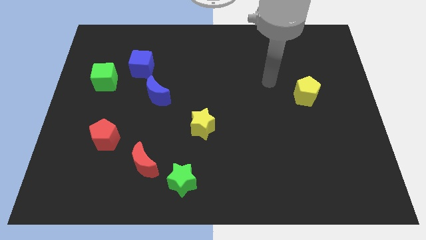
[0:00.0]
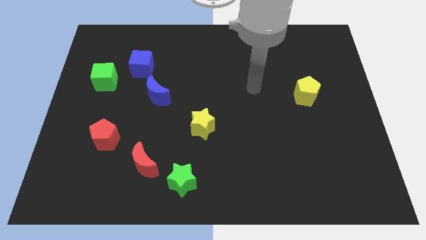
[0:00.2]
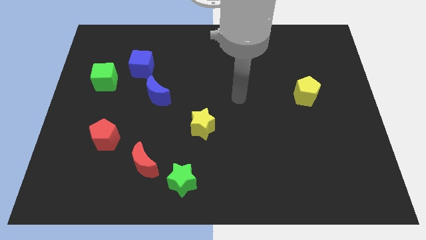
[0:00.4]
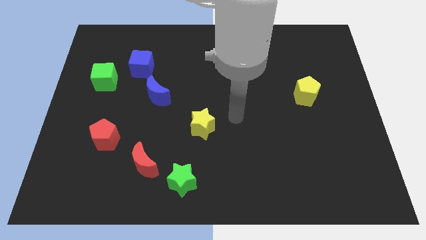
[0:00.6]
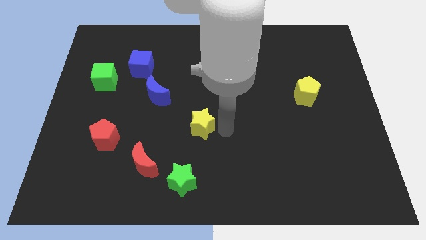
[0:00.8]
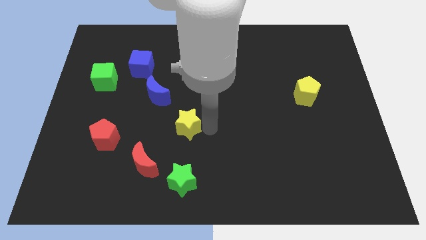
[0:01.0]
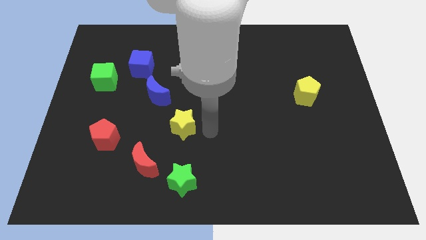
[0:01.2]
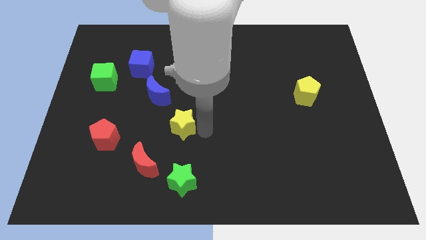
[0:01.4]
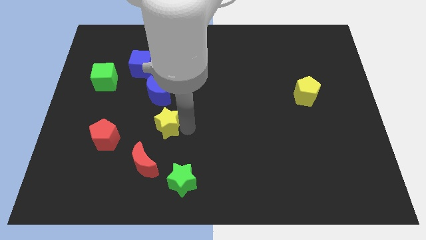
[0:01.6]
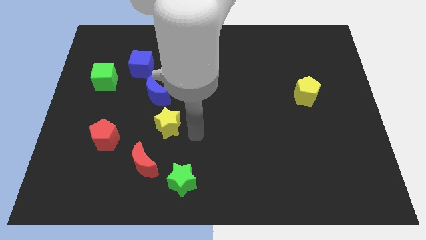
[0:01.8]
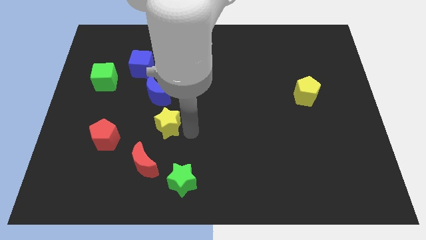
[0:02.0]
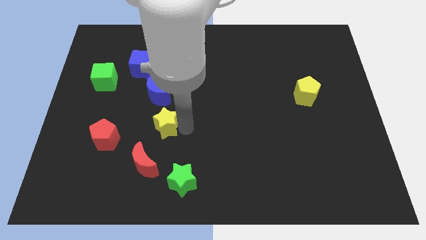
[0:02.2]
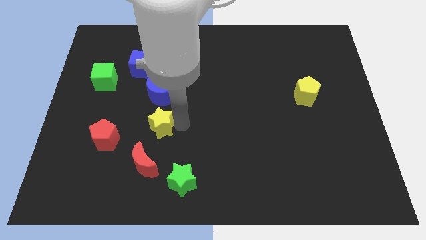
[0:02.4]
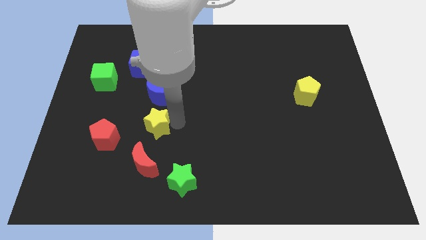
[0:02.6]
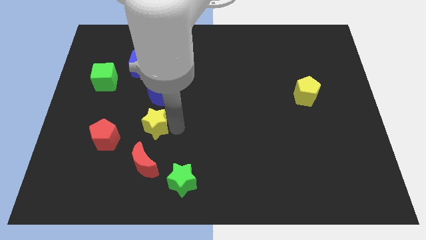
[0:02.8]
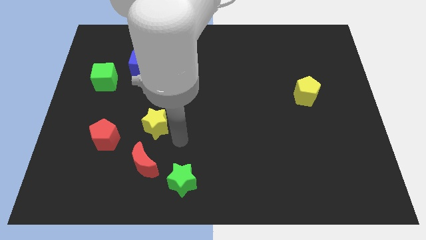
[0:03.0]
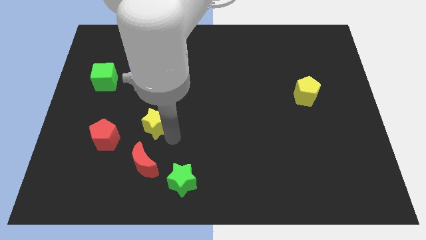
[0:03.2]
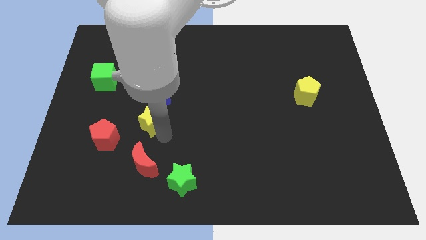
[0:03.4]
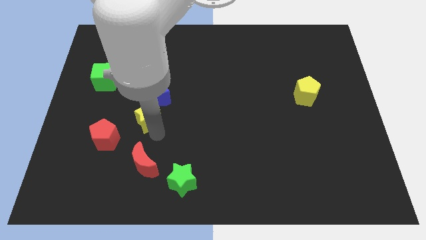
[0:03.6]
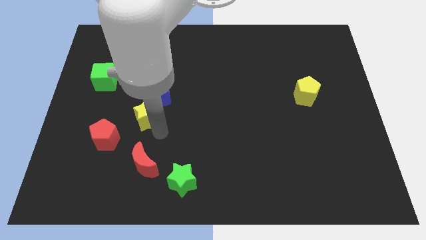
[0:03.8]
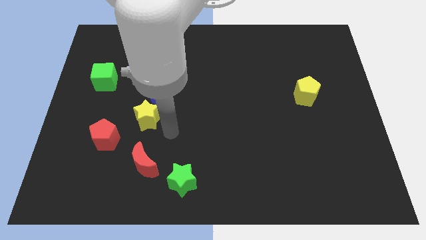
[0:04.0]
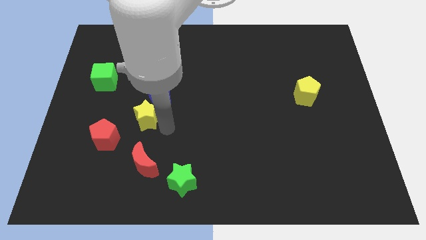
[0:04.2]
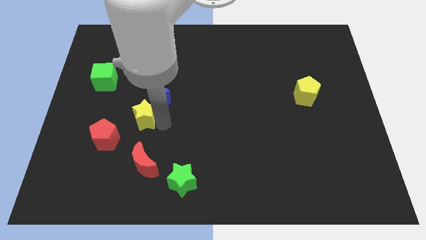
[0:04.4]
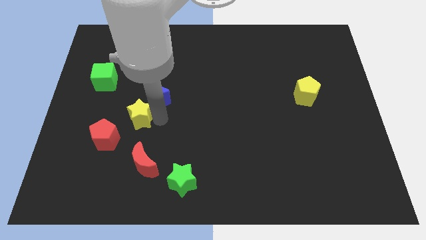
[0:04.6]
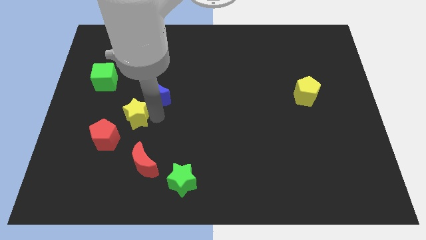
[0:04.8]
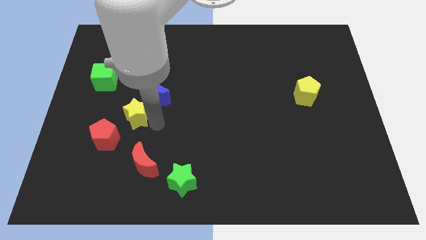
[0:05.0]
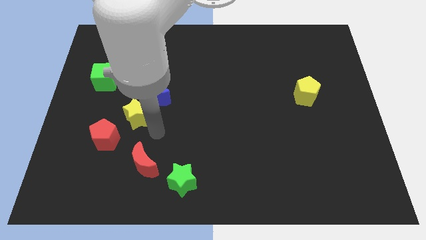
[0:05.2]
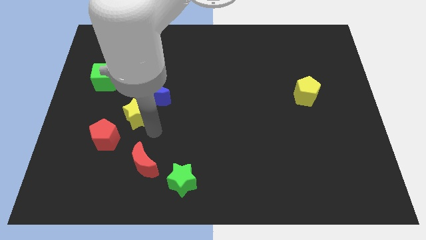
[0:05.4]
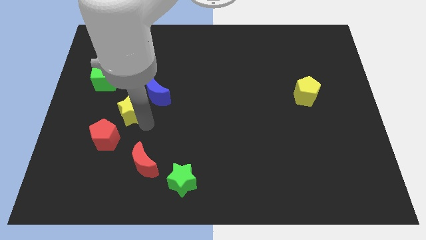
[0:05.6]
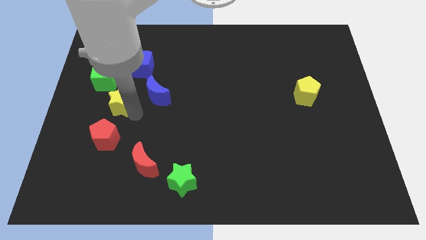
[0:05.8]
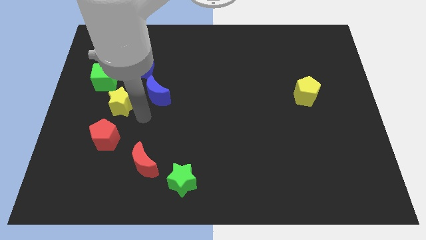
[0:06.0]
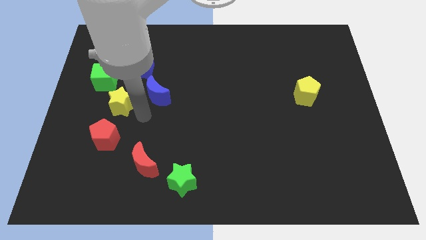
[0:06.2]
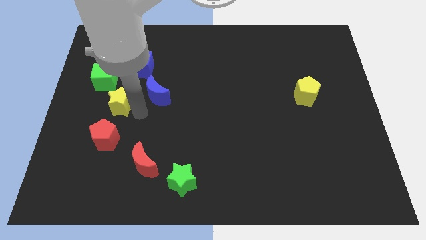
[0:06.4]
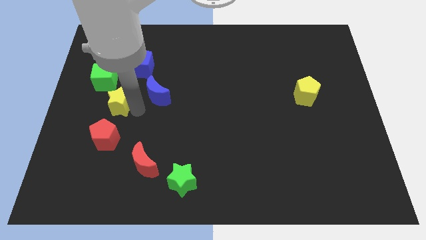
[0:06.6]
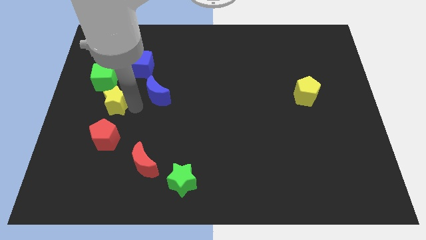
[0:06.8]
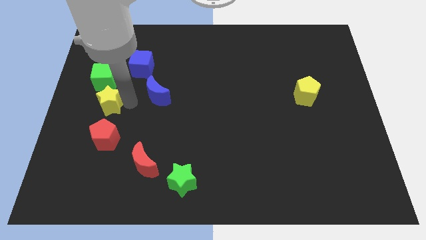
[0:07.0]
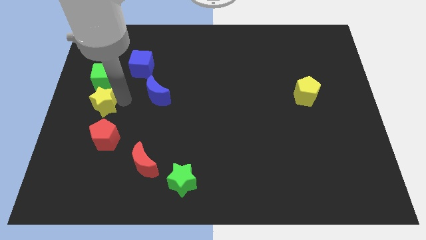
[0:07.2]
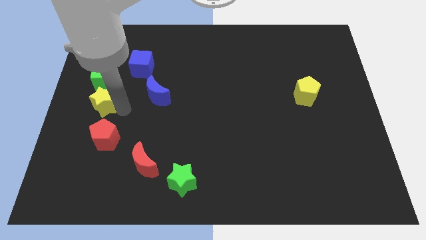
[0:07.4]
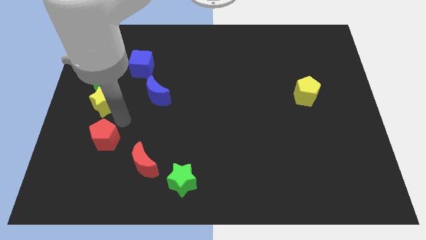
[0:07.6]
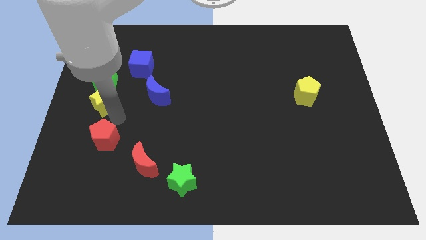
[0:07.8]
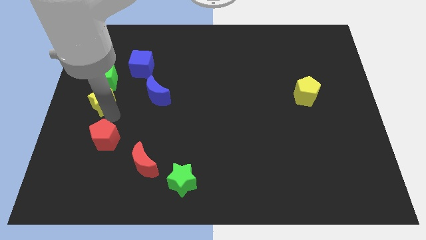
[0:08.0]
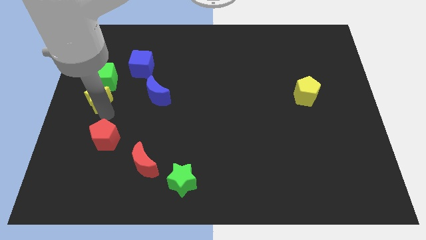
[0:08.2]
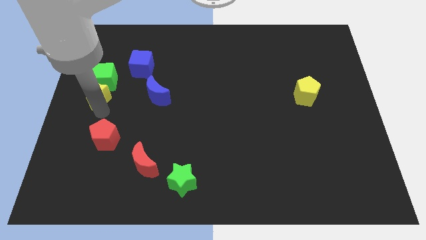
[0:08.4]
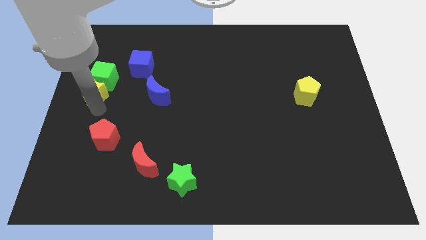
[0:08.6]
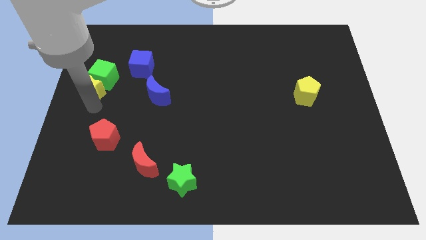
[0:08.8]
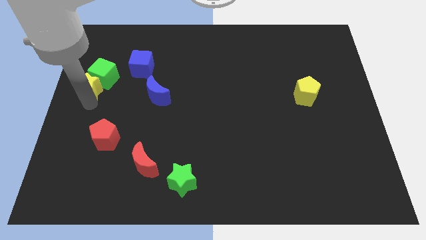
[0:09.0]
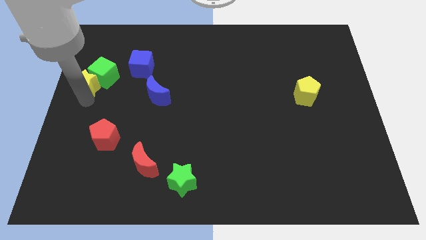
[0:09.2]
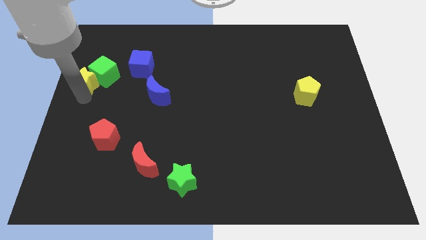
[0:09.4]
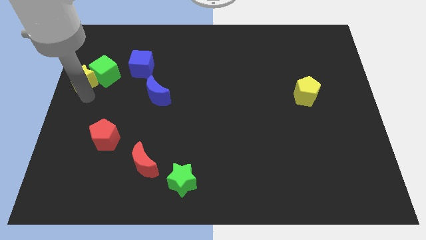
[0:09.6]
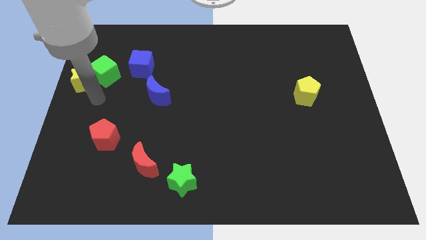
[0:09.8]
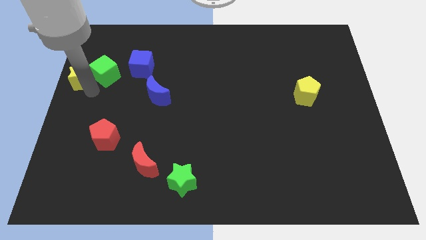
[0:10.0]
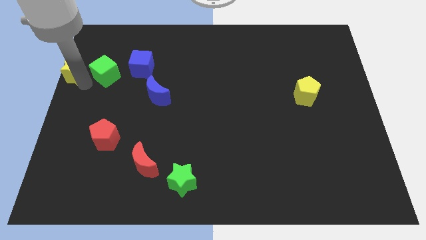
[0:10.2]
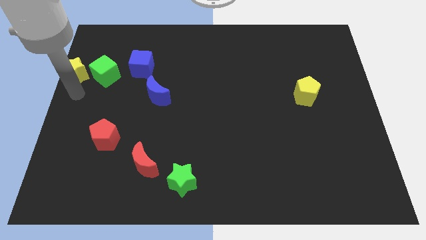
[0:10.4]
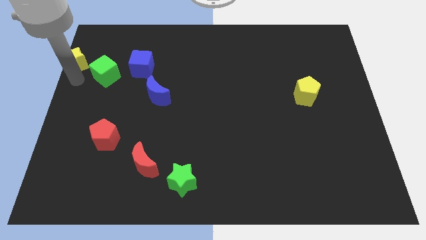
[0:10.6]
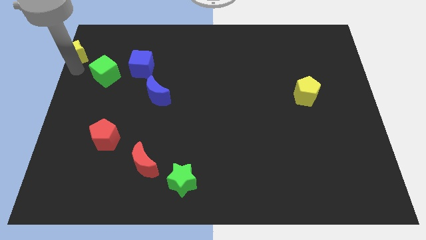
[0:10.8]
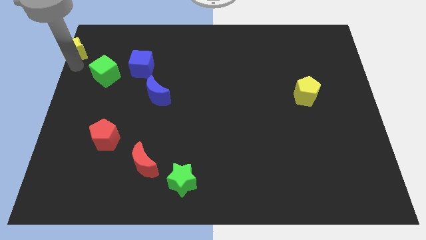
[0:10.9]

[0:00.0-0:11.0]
slide the yellow star to the top left corner

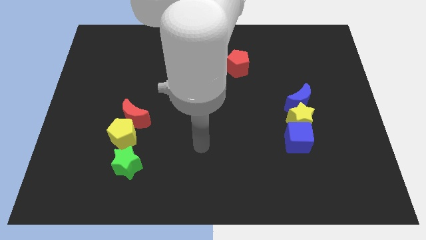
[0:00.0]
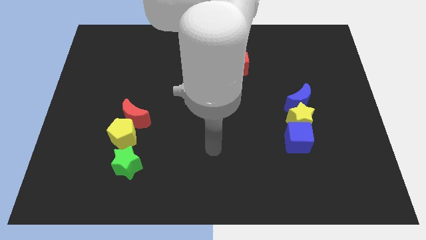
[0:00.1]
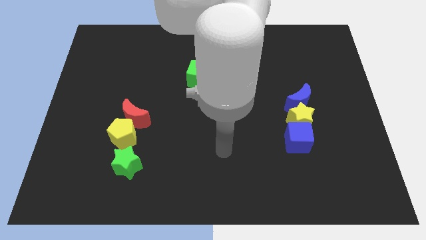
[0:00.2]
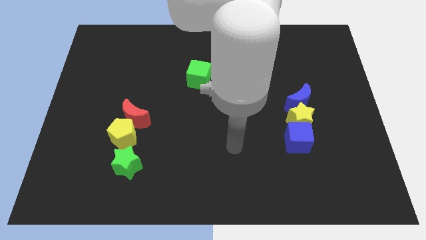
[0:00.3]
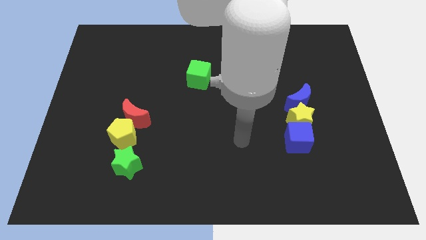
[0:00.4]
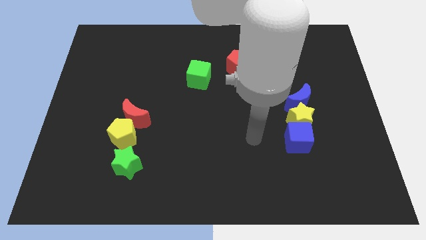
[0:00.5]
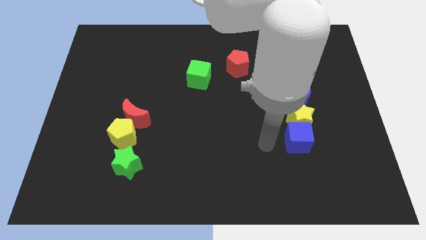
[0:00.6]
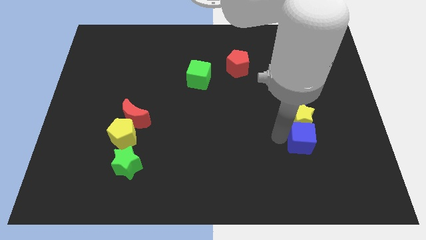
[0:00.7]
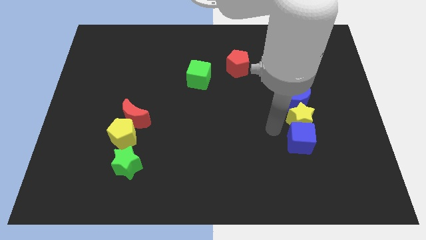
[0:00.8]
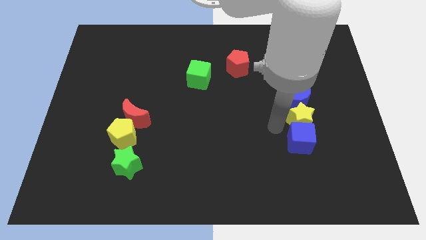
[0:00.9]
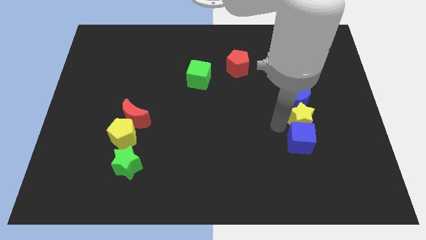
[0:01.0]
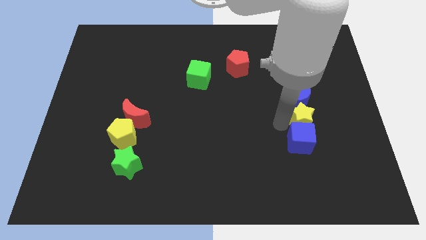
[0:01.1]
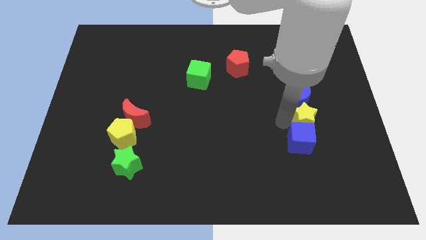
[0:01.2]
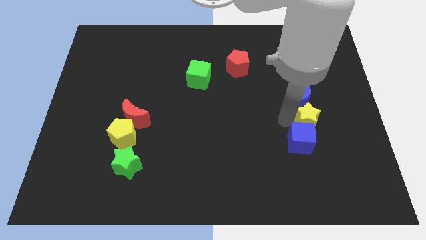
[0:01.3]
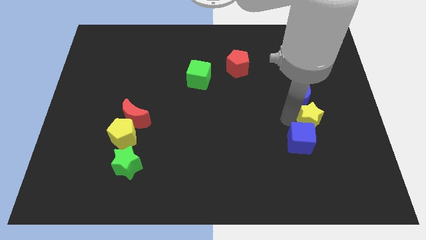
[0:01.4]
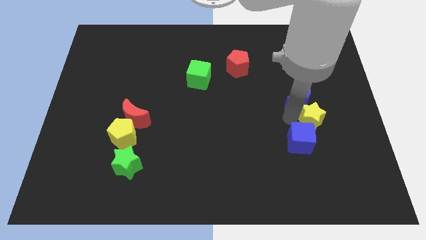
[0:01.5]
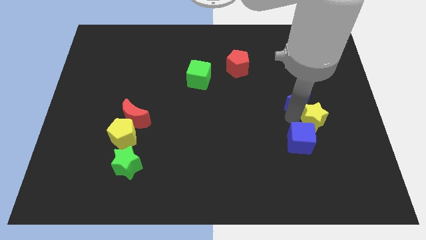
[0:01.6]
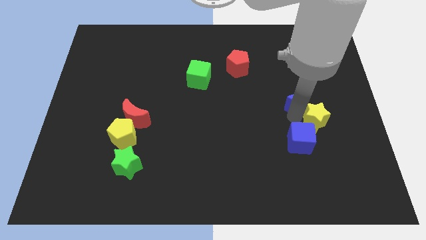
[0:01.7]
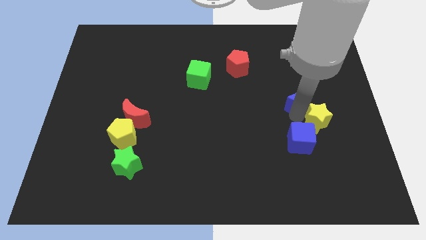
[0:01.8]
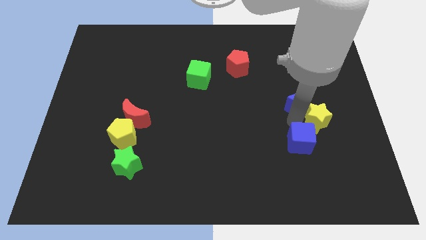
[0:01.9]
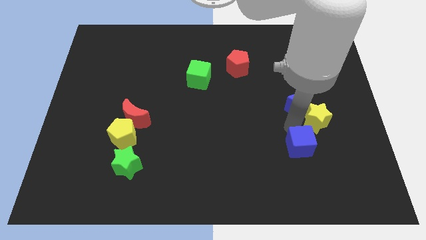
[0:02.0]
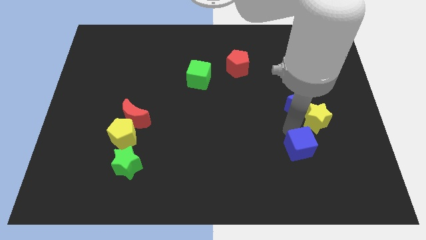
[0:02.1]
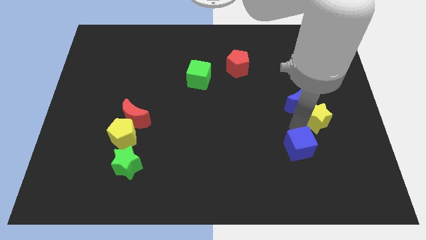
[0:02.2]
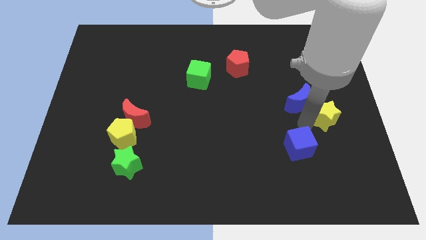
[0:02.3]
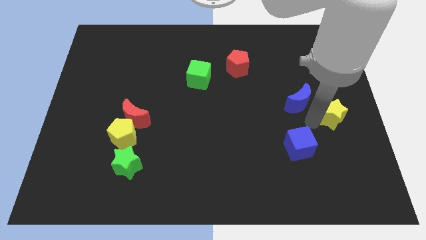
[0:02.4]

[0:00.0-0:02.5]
put the yellow star to the right side
